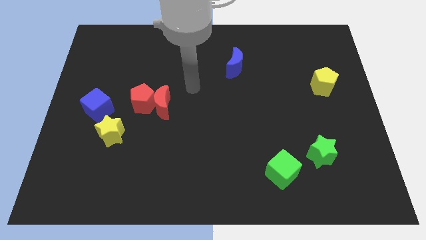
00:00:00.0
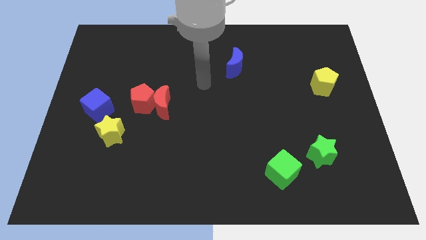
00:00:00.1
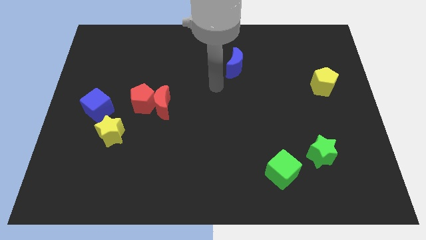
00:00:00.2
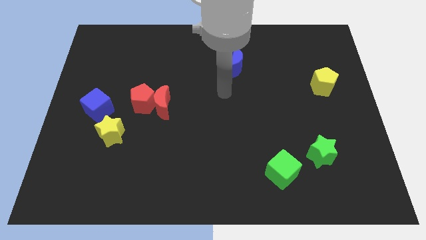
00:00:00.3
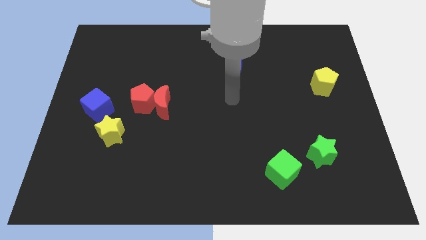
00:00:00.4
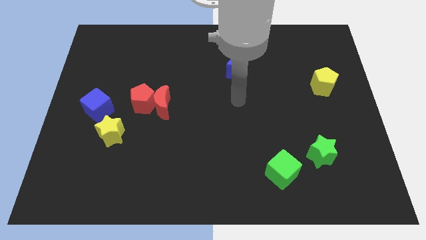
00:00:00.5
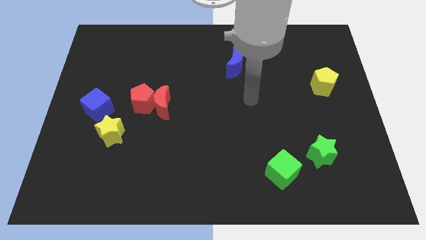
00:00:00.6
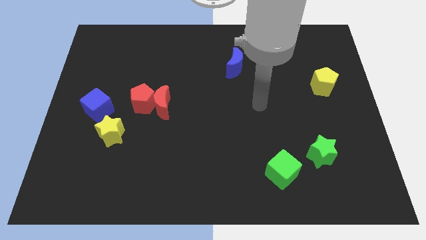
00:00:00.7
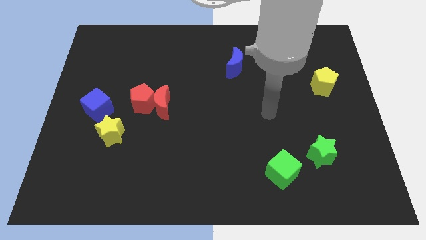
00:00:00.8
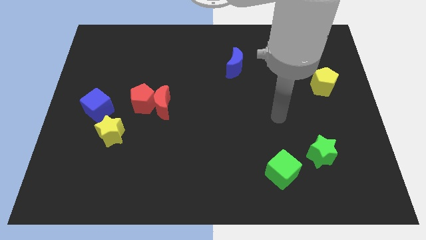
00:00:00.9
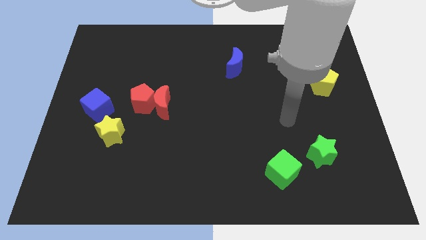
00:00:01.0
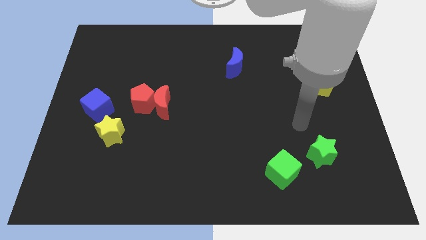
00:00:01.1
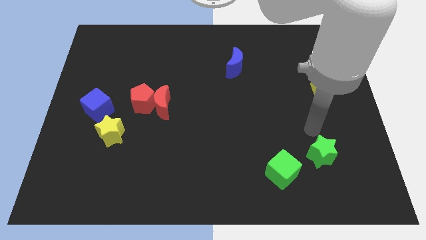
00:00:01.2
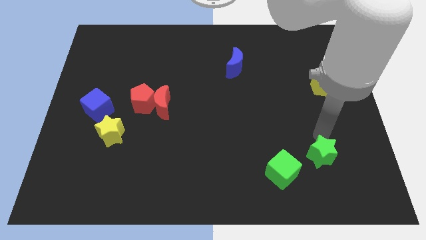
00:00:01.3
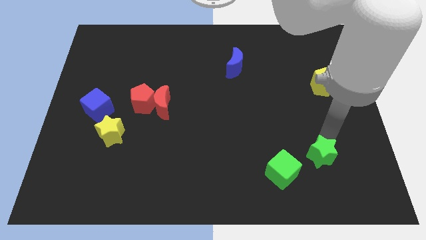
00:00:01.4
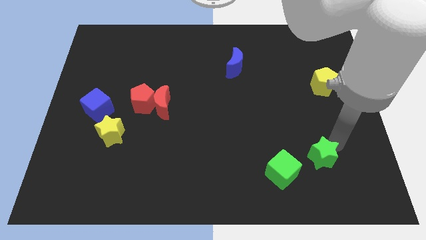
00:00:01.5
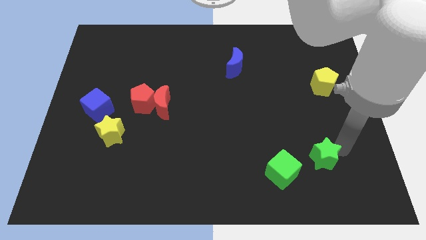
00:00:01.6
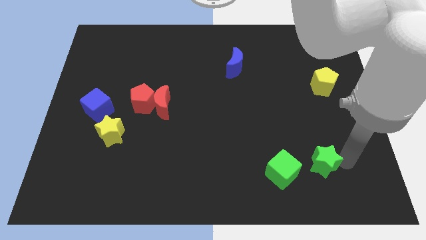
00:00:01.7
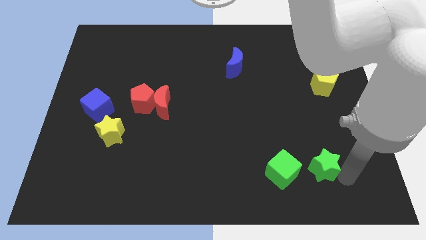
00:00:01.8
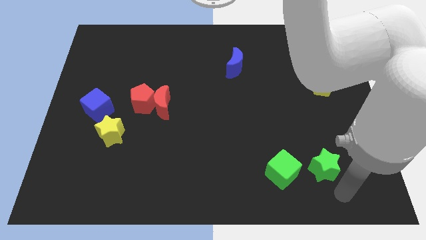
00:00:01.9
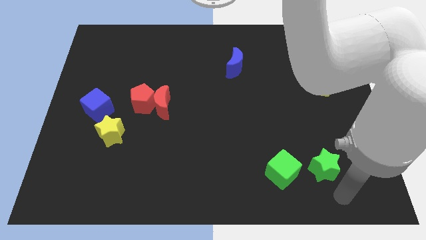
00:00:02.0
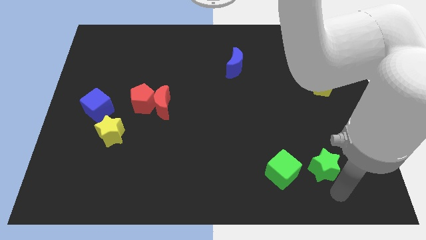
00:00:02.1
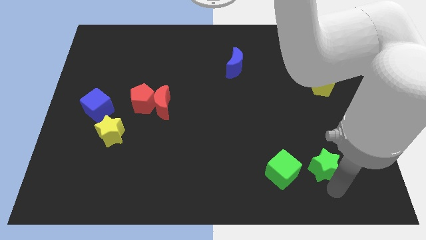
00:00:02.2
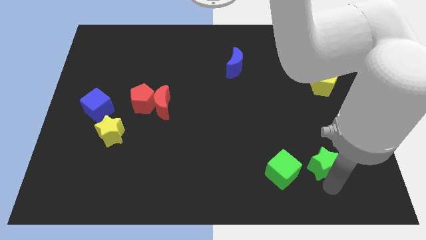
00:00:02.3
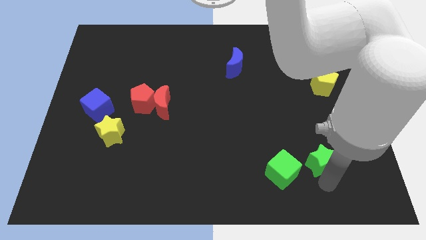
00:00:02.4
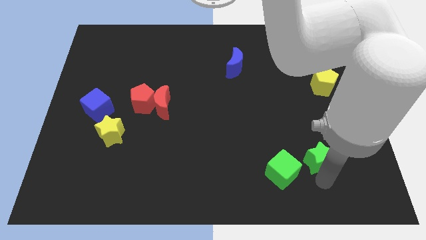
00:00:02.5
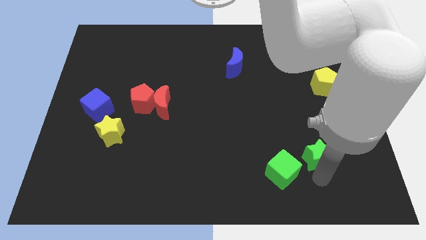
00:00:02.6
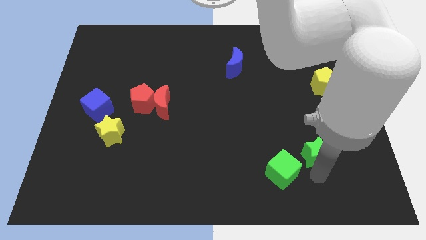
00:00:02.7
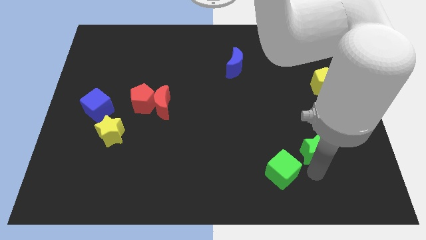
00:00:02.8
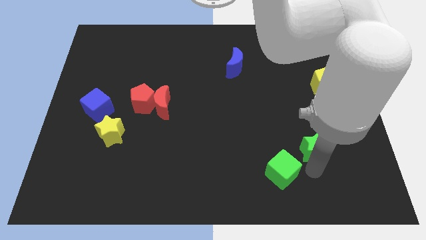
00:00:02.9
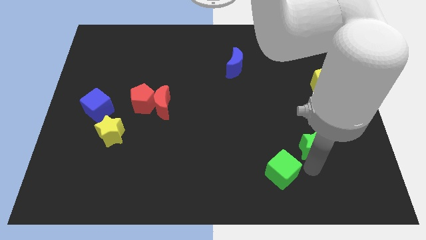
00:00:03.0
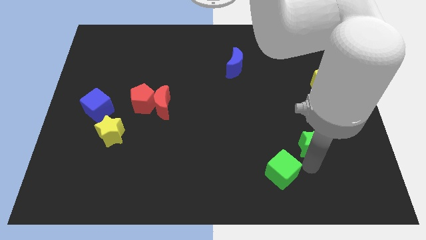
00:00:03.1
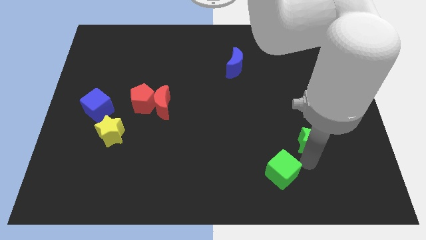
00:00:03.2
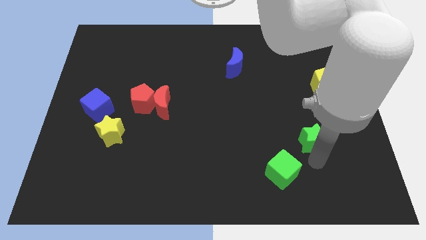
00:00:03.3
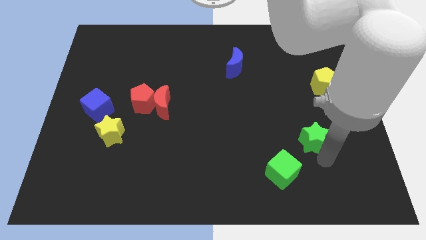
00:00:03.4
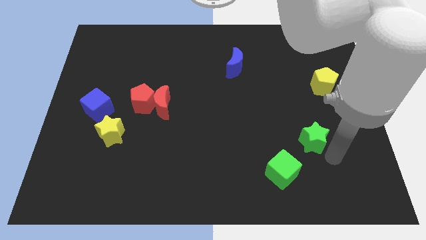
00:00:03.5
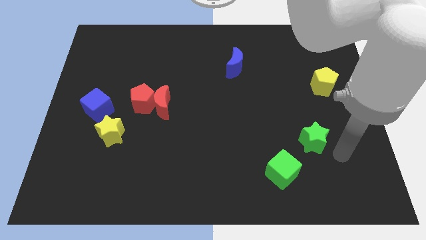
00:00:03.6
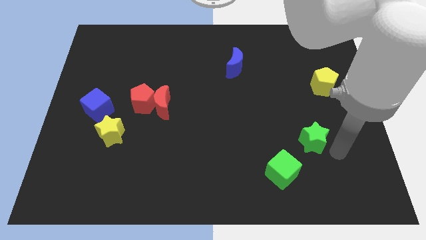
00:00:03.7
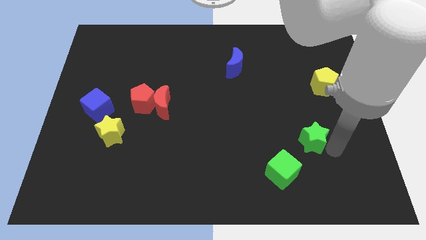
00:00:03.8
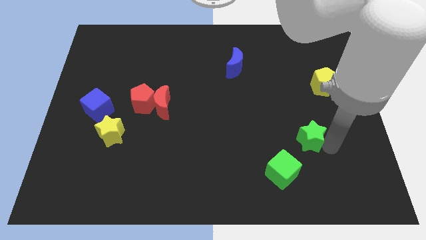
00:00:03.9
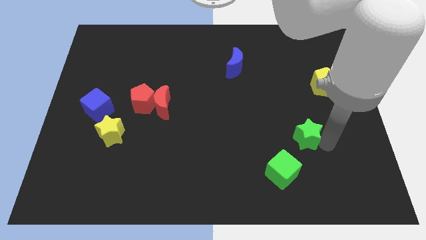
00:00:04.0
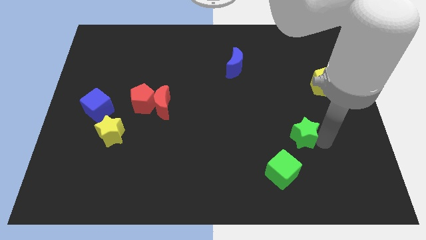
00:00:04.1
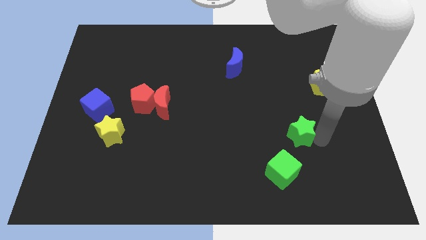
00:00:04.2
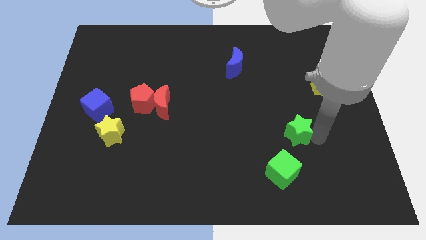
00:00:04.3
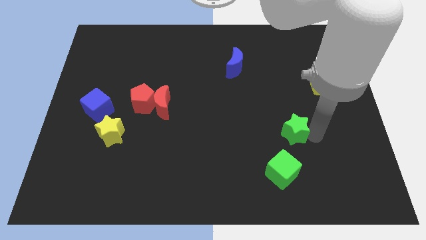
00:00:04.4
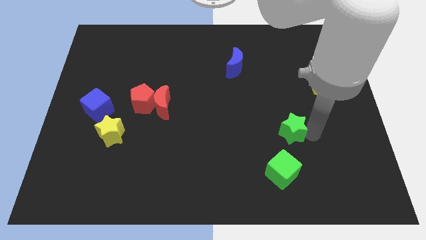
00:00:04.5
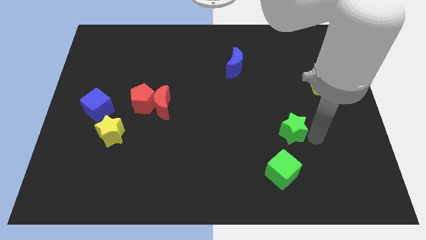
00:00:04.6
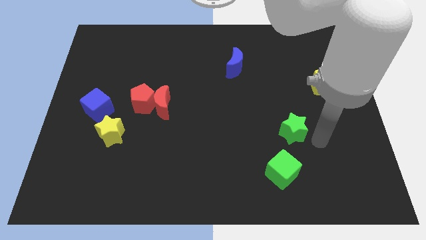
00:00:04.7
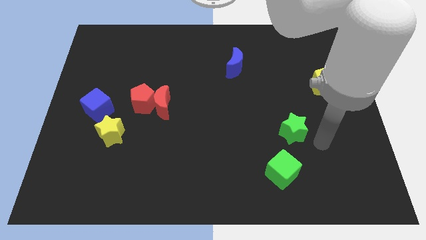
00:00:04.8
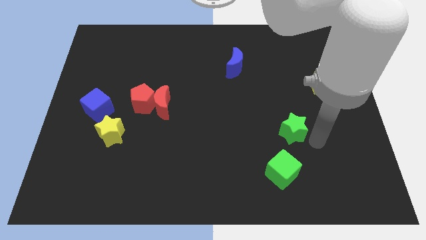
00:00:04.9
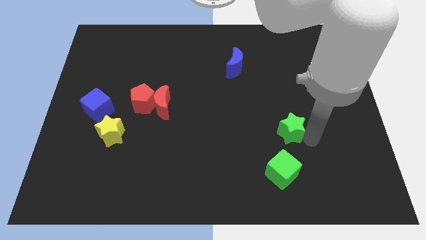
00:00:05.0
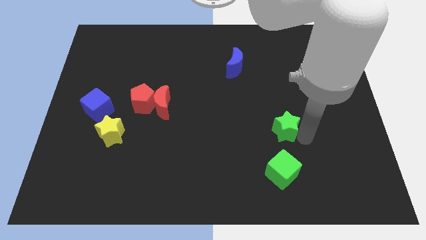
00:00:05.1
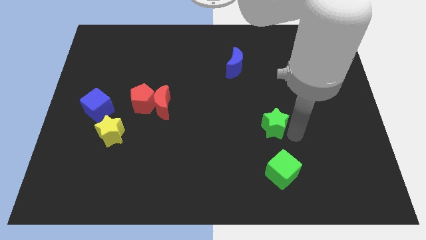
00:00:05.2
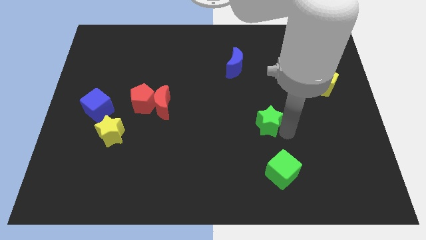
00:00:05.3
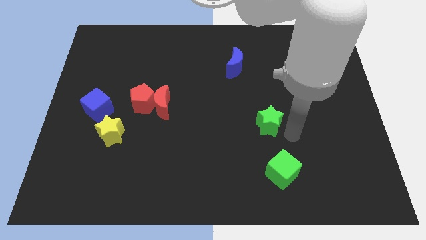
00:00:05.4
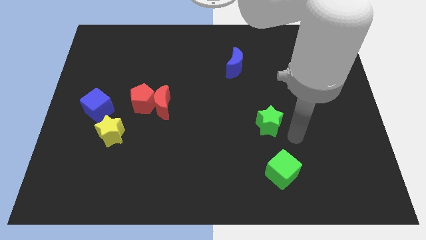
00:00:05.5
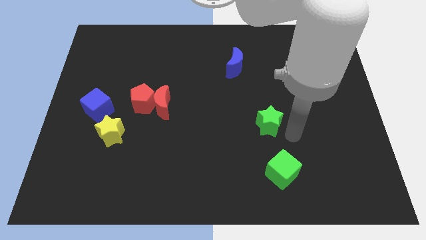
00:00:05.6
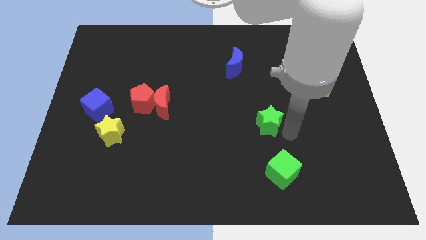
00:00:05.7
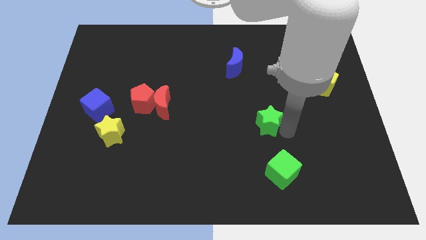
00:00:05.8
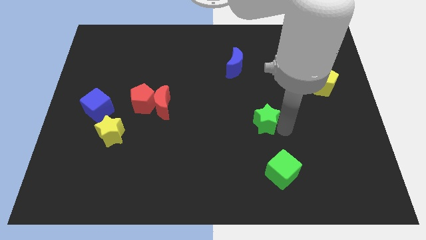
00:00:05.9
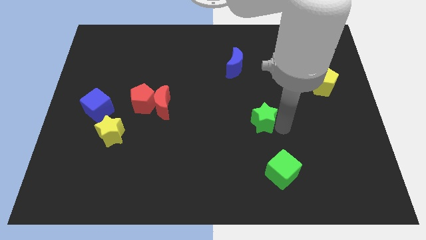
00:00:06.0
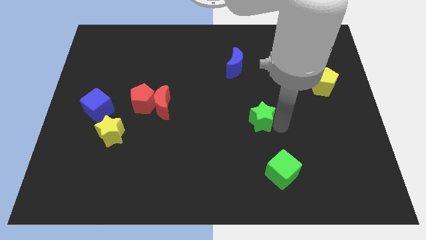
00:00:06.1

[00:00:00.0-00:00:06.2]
slide the green star to the center of the board
